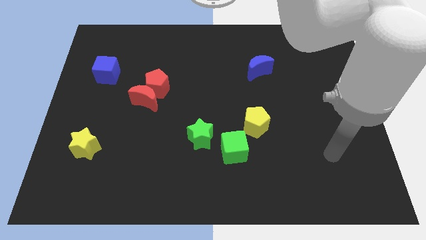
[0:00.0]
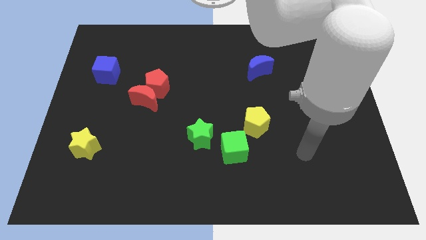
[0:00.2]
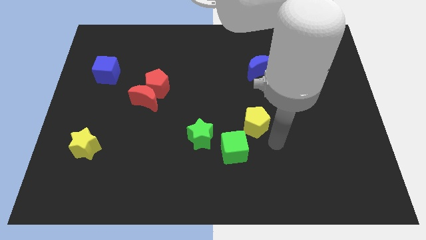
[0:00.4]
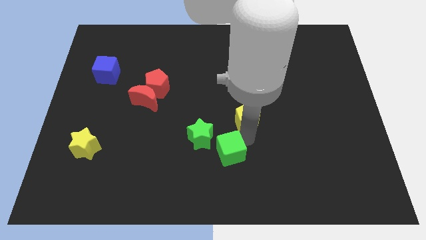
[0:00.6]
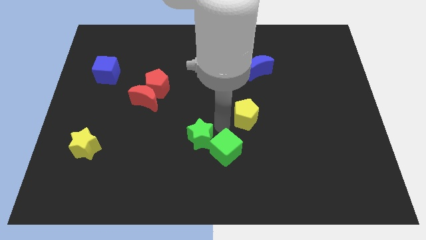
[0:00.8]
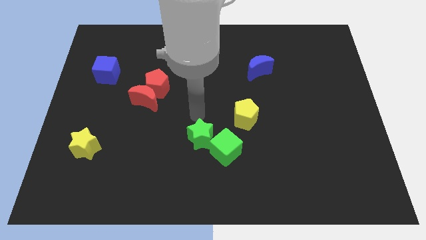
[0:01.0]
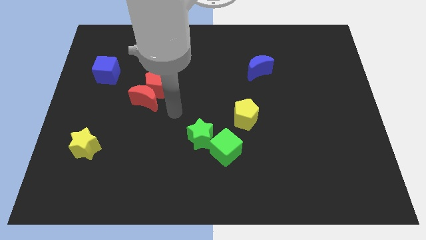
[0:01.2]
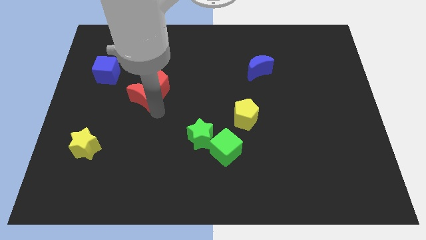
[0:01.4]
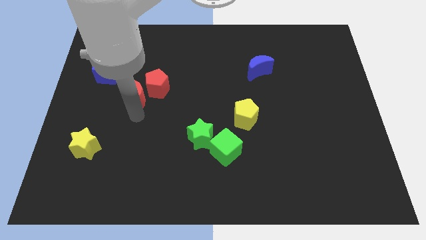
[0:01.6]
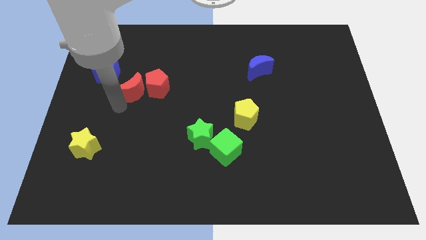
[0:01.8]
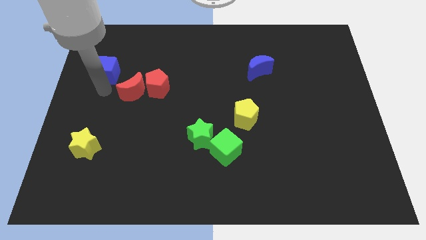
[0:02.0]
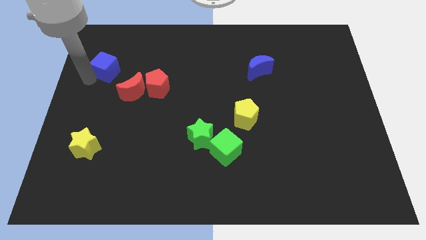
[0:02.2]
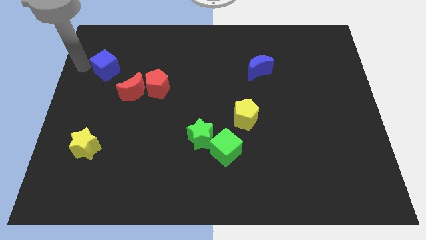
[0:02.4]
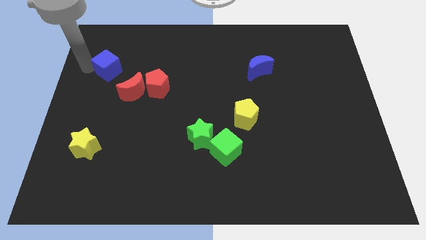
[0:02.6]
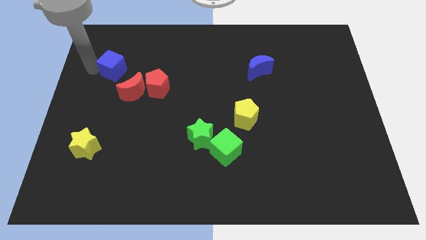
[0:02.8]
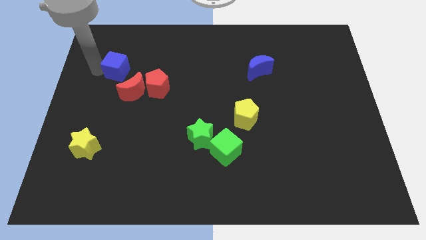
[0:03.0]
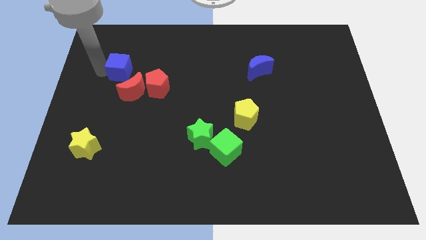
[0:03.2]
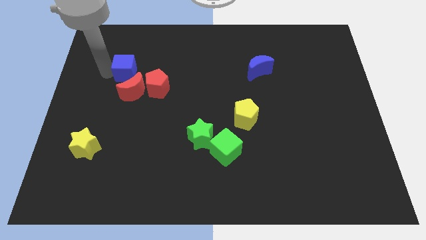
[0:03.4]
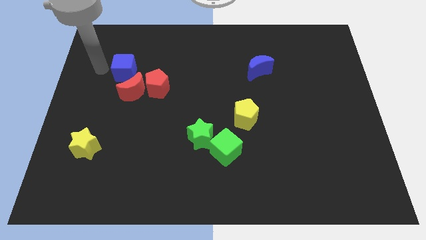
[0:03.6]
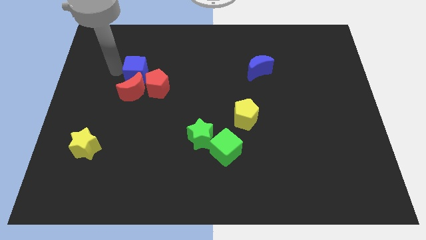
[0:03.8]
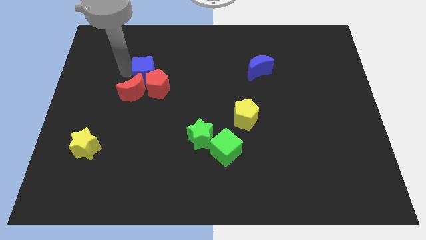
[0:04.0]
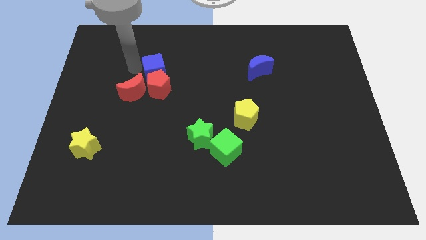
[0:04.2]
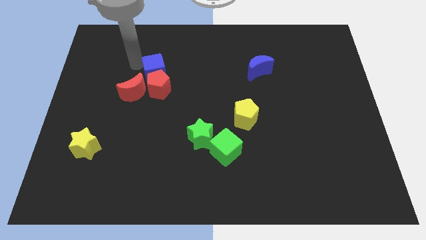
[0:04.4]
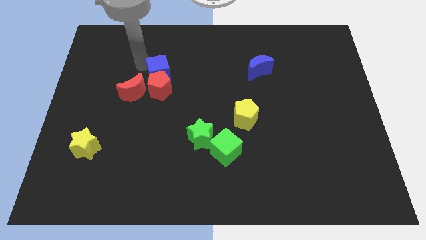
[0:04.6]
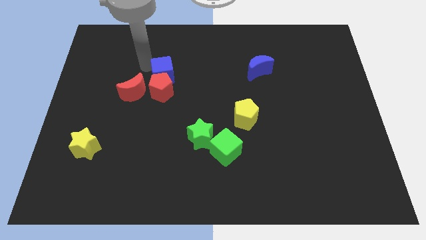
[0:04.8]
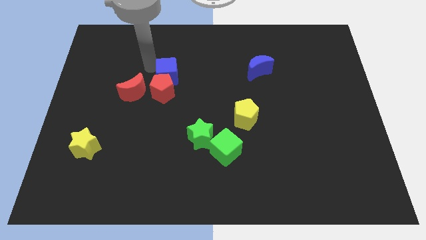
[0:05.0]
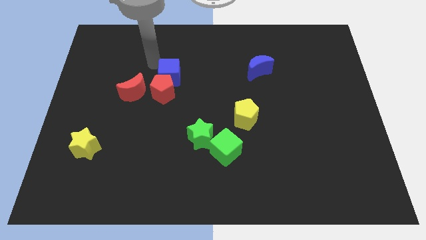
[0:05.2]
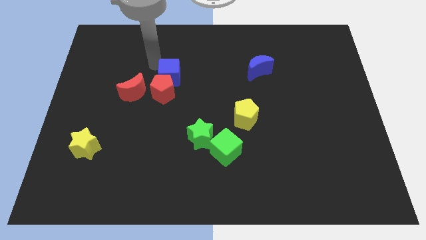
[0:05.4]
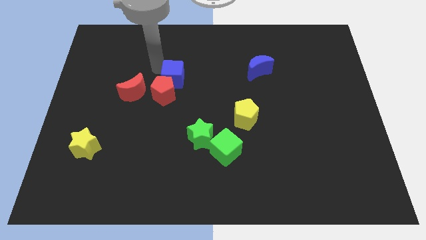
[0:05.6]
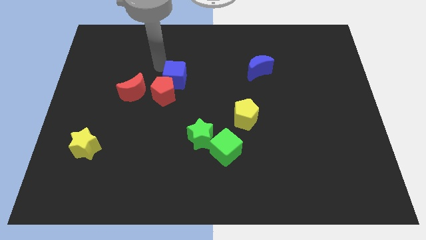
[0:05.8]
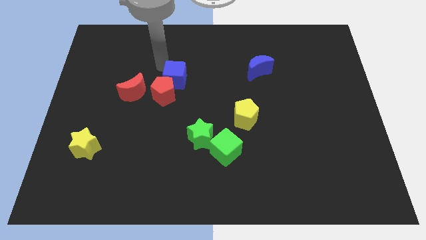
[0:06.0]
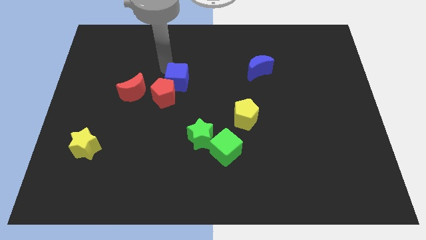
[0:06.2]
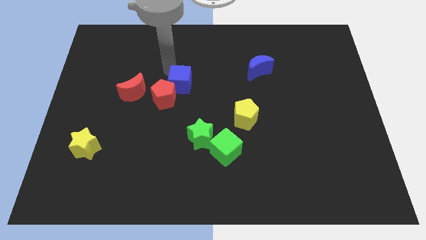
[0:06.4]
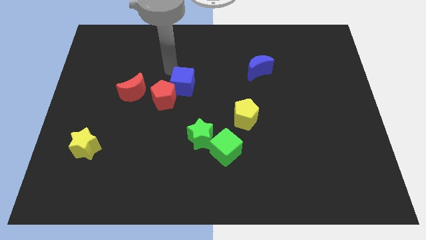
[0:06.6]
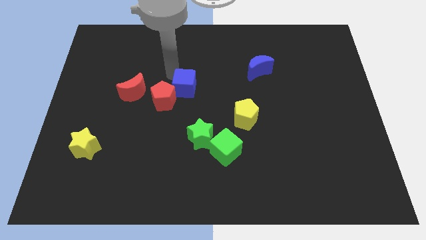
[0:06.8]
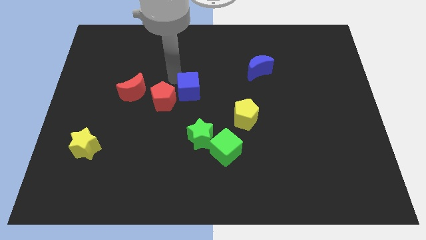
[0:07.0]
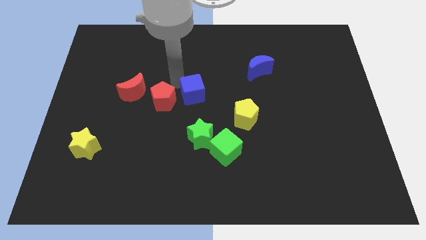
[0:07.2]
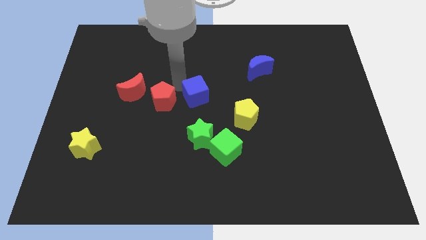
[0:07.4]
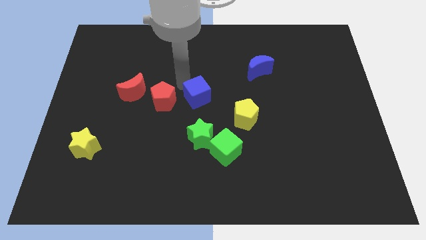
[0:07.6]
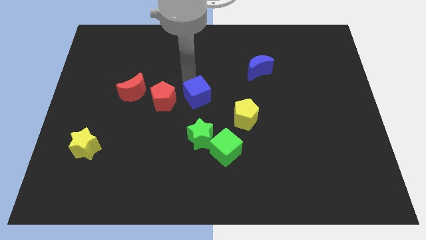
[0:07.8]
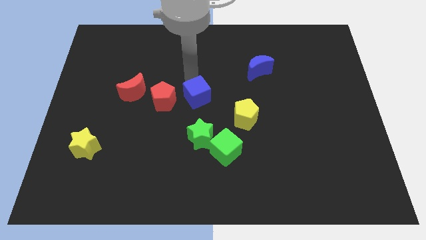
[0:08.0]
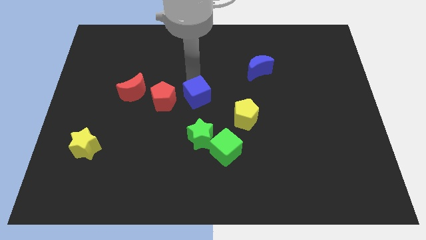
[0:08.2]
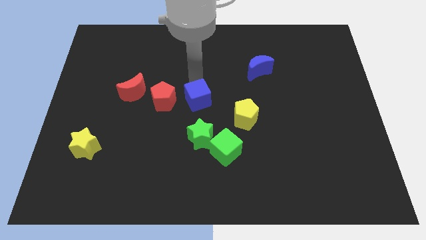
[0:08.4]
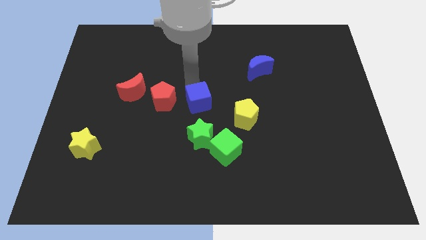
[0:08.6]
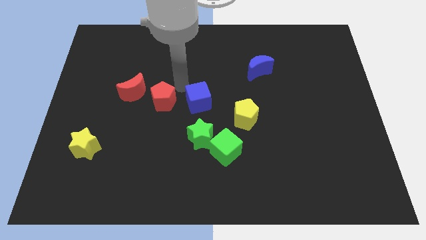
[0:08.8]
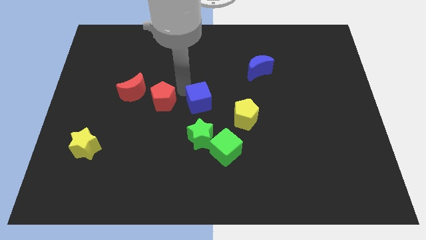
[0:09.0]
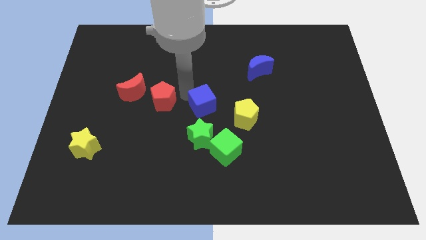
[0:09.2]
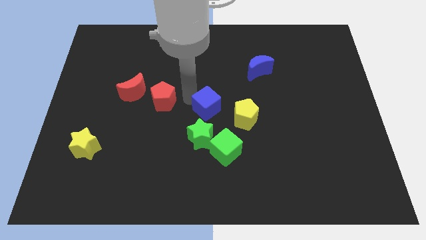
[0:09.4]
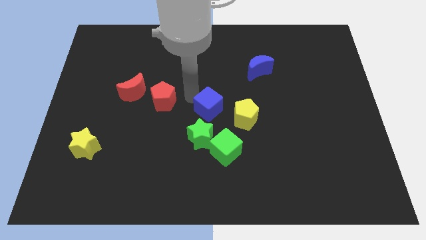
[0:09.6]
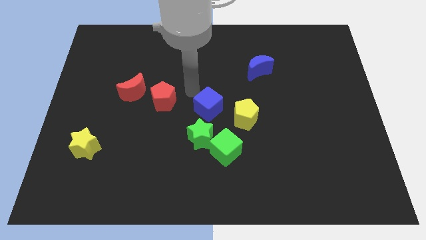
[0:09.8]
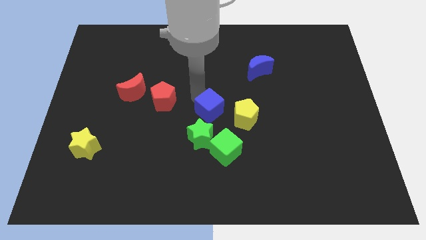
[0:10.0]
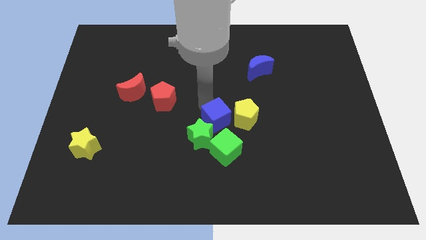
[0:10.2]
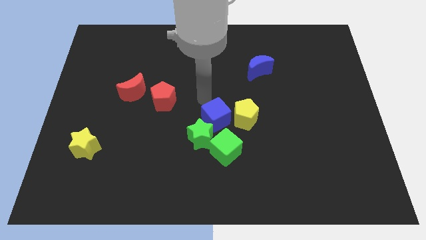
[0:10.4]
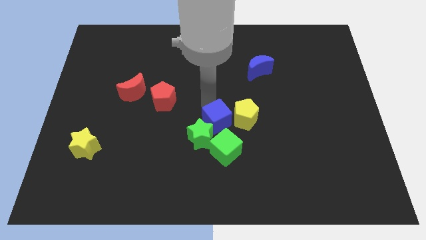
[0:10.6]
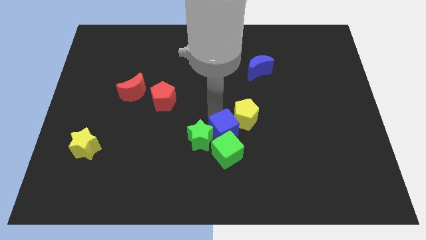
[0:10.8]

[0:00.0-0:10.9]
put the blue cube to the green cube

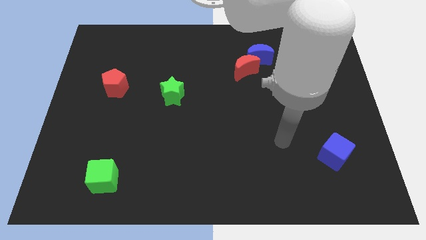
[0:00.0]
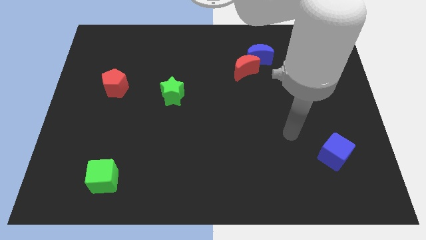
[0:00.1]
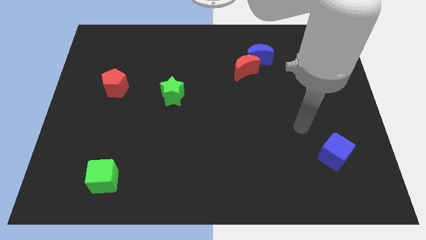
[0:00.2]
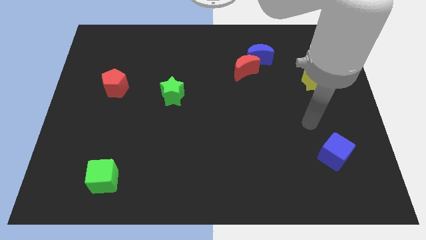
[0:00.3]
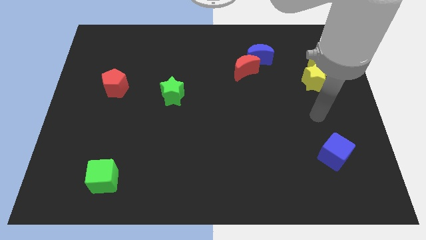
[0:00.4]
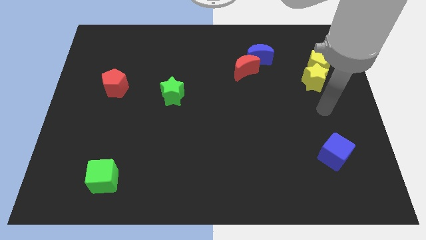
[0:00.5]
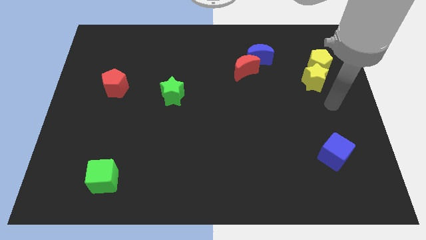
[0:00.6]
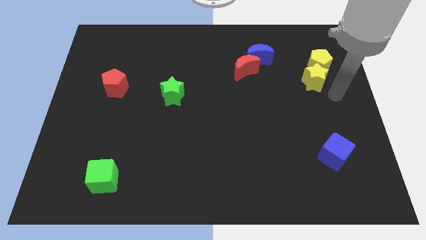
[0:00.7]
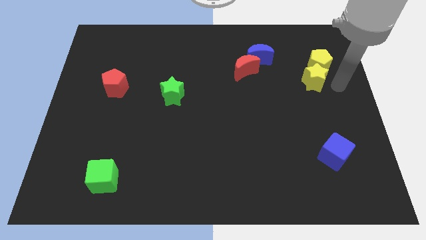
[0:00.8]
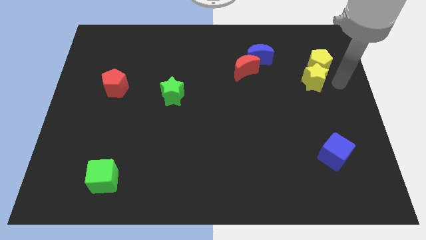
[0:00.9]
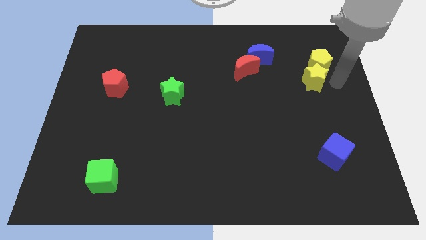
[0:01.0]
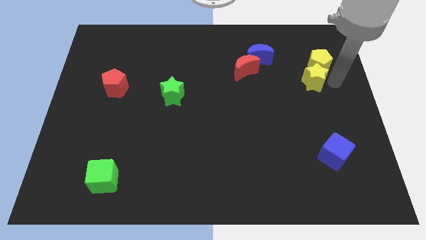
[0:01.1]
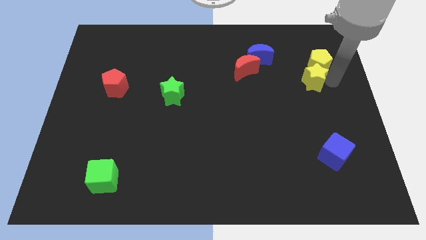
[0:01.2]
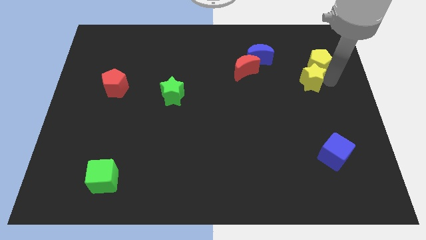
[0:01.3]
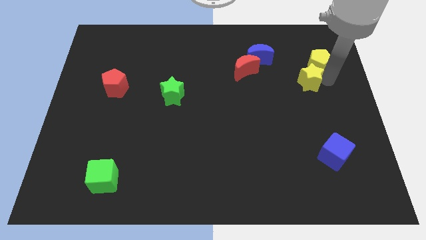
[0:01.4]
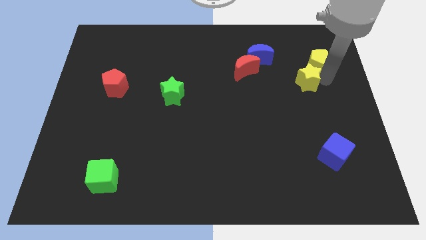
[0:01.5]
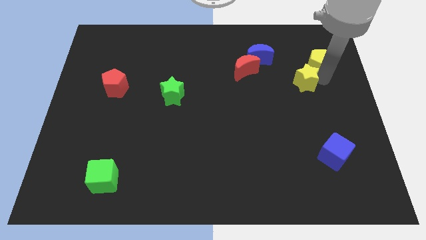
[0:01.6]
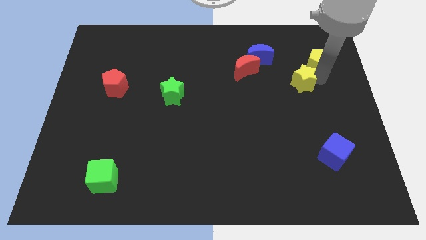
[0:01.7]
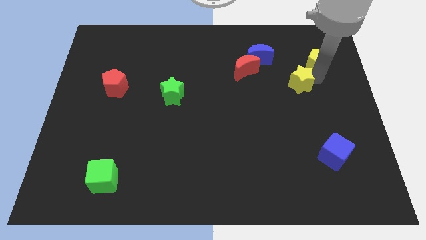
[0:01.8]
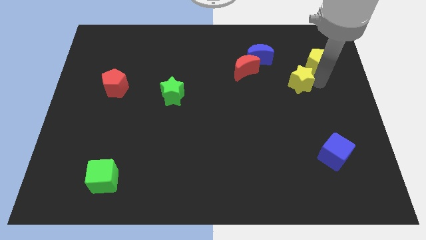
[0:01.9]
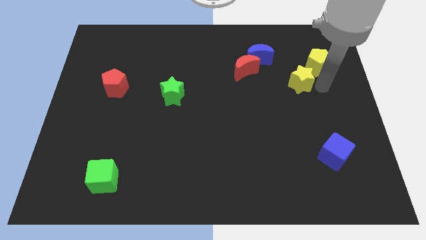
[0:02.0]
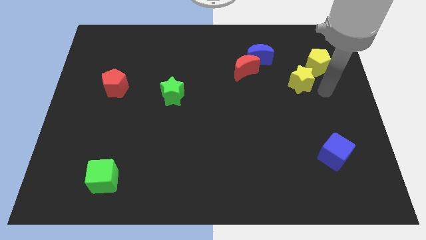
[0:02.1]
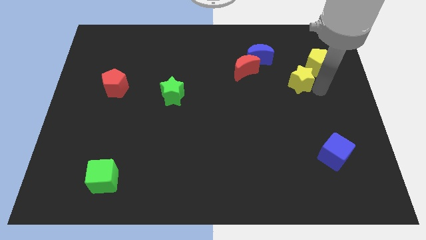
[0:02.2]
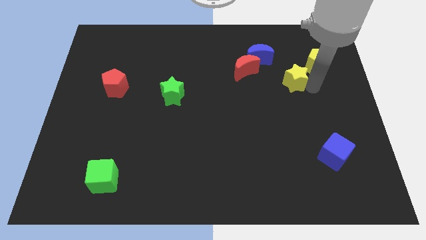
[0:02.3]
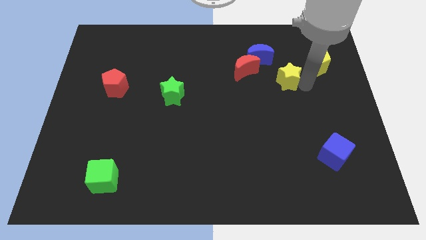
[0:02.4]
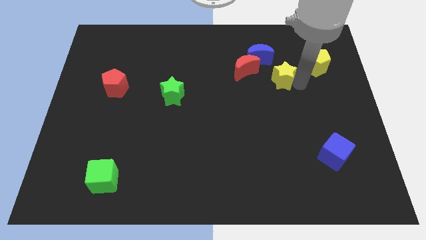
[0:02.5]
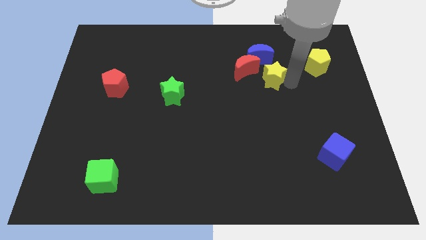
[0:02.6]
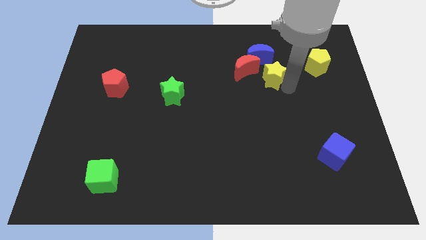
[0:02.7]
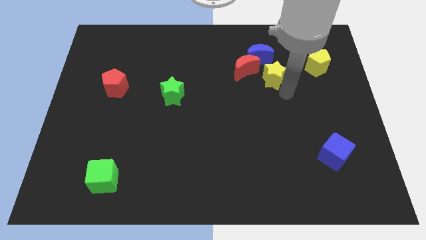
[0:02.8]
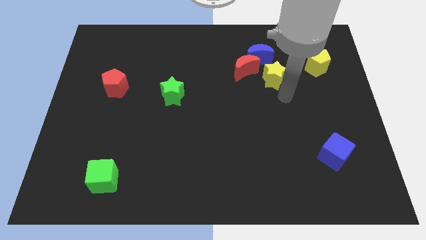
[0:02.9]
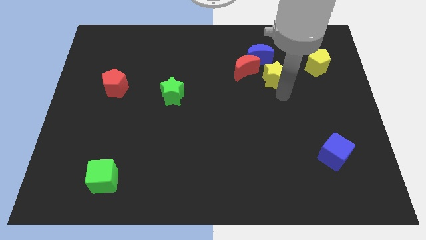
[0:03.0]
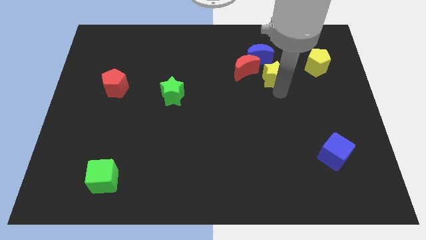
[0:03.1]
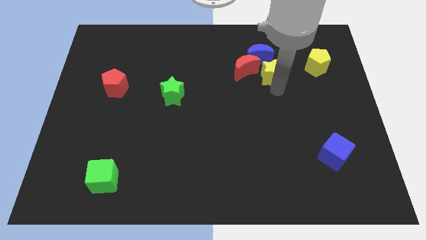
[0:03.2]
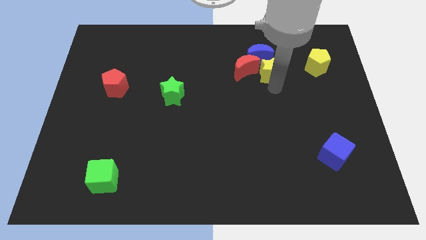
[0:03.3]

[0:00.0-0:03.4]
put the yellow star towards the blue moon
